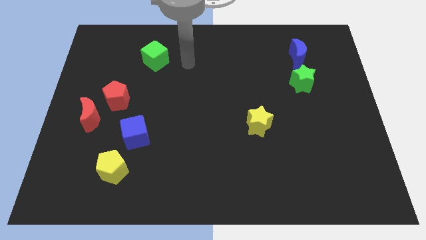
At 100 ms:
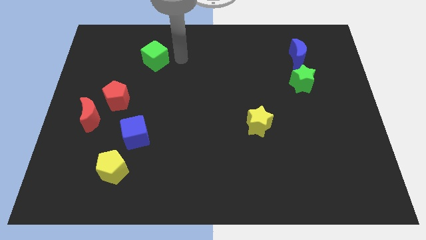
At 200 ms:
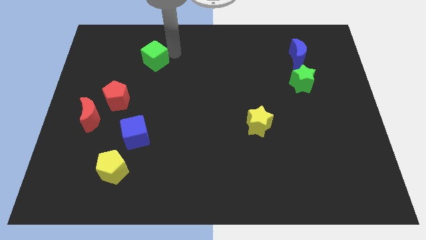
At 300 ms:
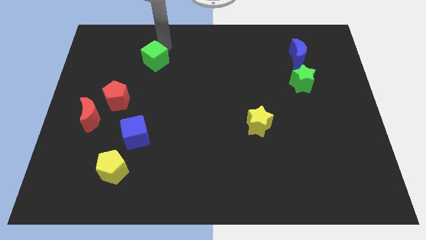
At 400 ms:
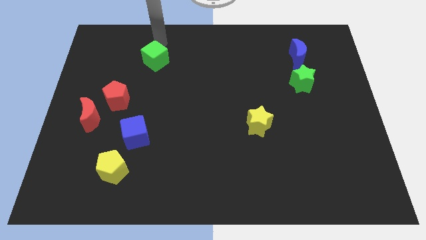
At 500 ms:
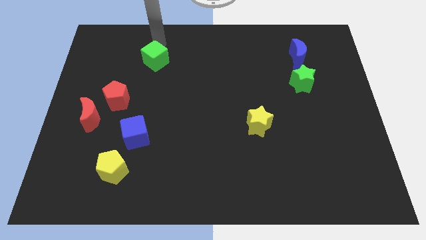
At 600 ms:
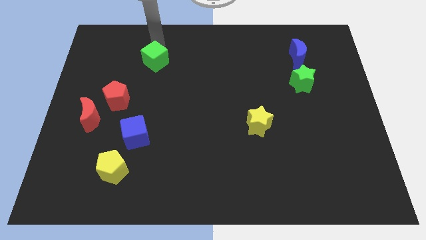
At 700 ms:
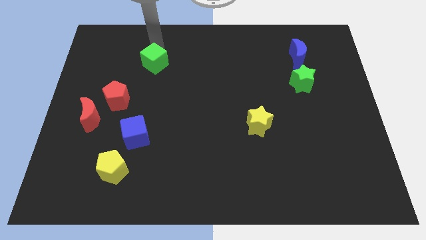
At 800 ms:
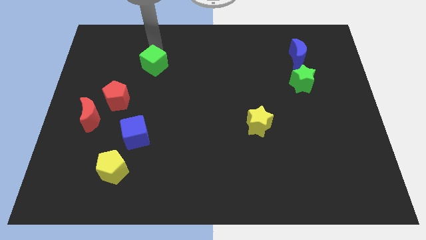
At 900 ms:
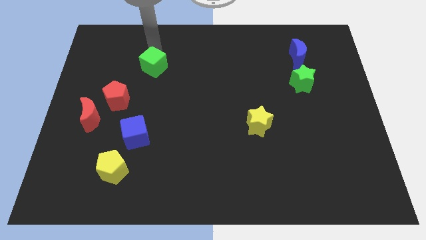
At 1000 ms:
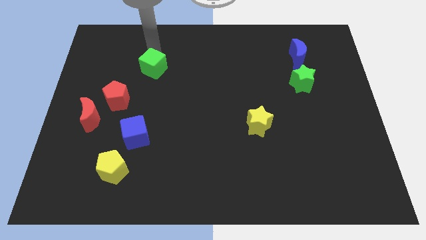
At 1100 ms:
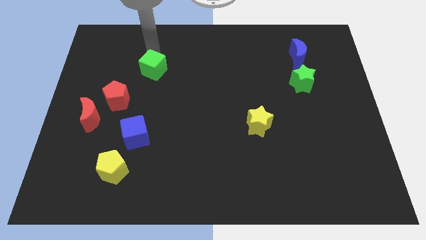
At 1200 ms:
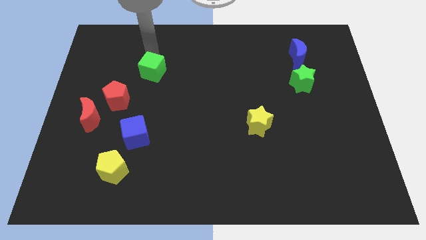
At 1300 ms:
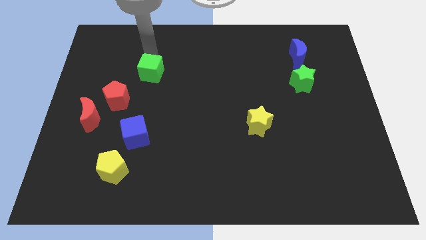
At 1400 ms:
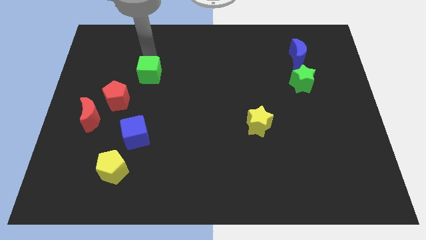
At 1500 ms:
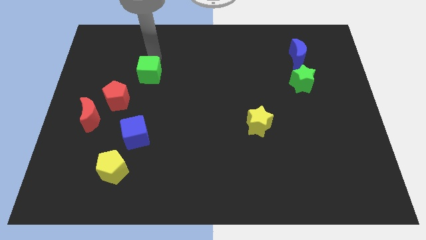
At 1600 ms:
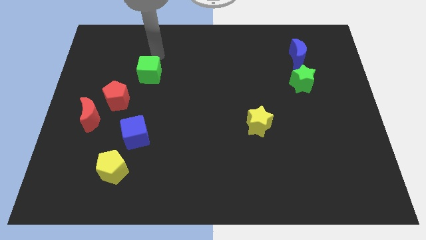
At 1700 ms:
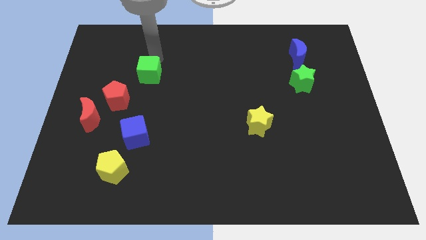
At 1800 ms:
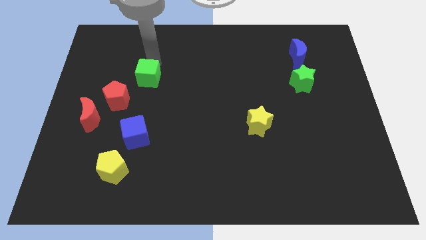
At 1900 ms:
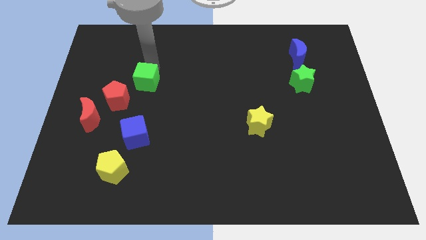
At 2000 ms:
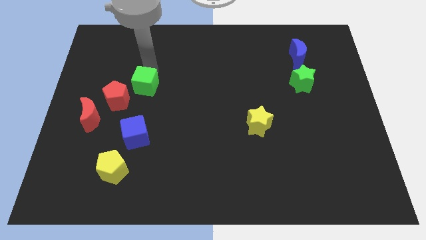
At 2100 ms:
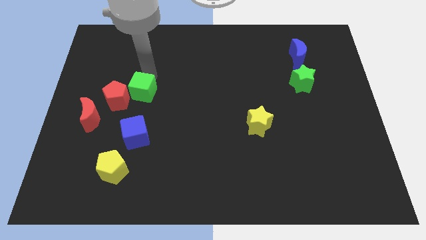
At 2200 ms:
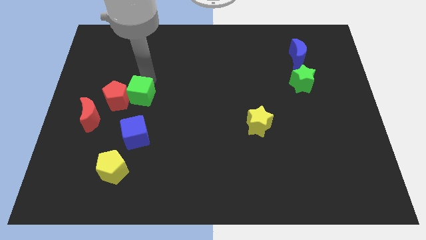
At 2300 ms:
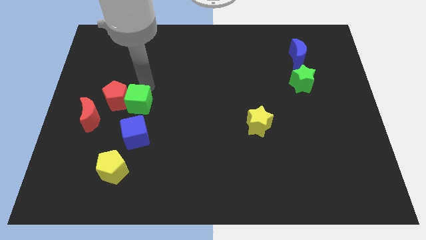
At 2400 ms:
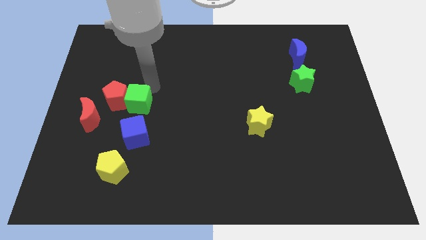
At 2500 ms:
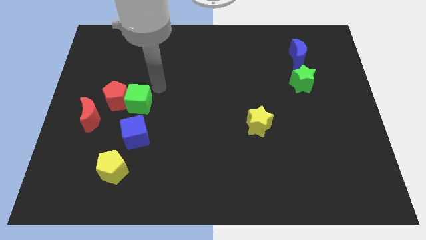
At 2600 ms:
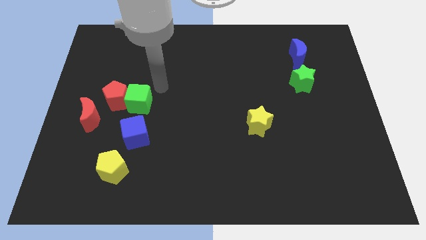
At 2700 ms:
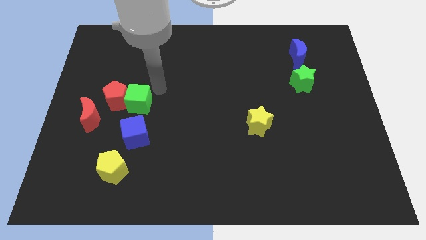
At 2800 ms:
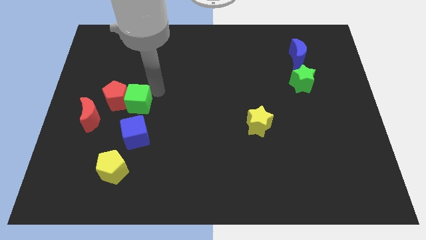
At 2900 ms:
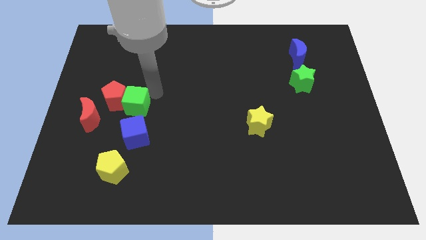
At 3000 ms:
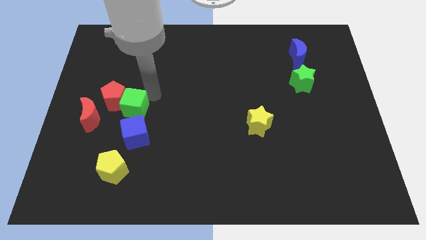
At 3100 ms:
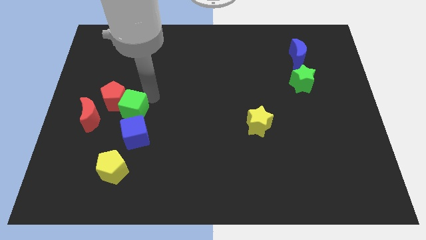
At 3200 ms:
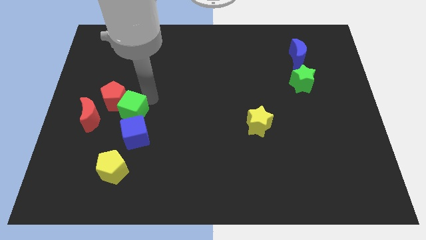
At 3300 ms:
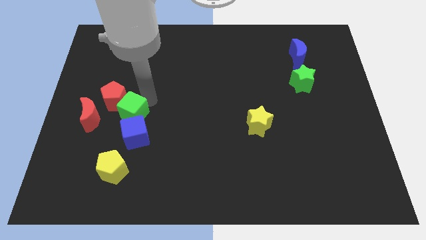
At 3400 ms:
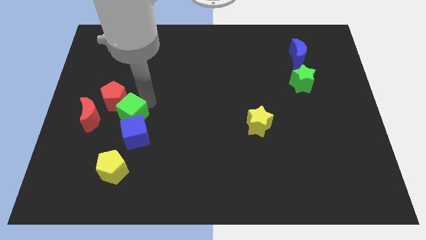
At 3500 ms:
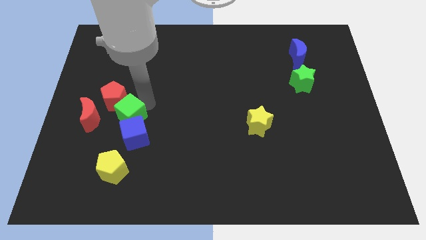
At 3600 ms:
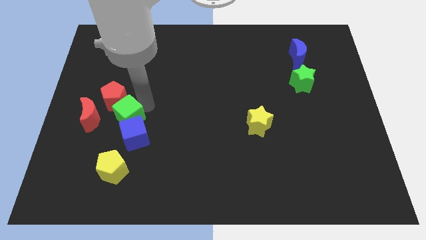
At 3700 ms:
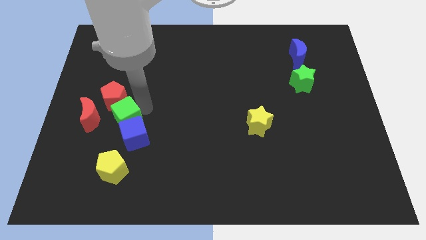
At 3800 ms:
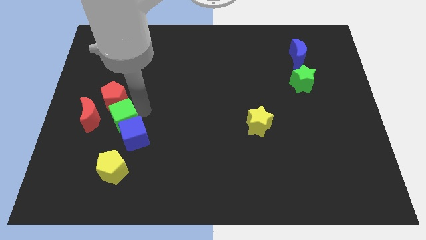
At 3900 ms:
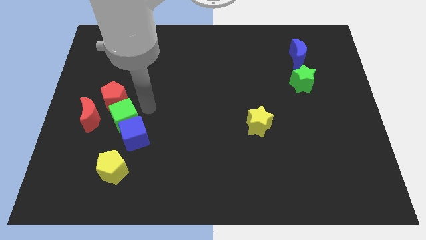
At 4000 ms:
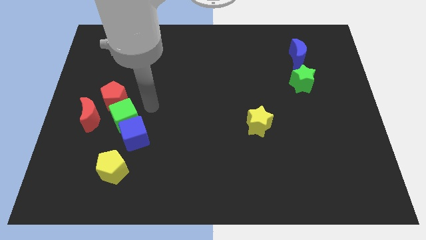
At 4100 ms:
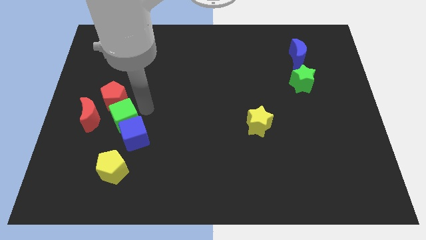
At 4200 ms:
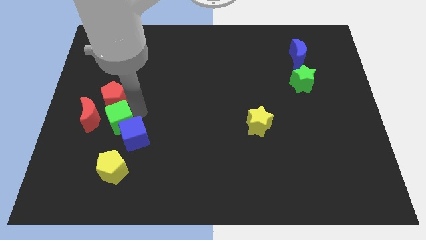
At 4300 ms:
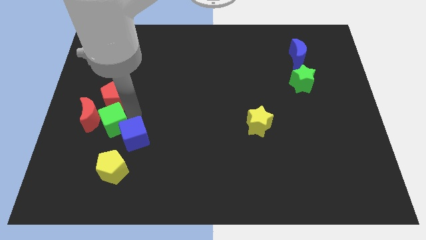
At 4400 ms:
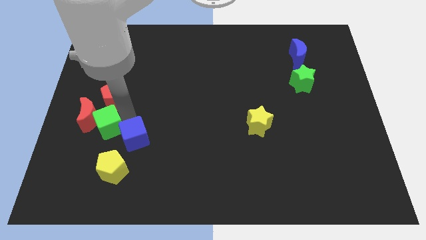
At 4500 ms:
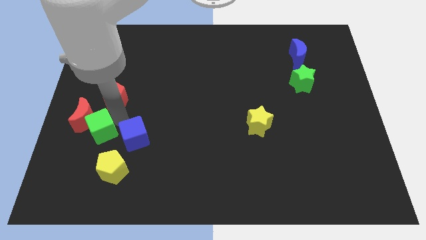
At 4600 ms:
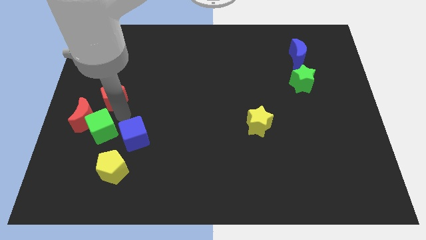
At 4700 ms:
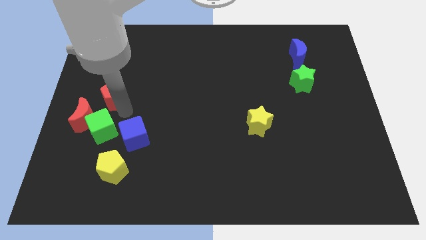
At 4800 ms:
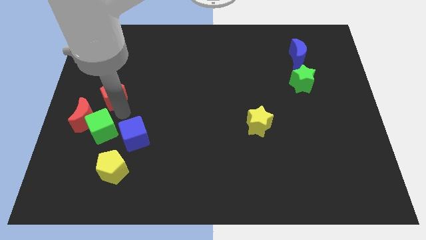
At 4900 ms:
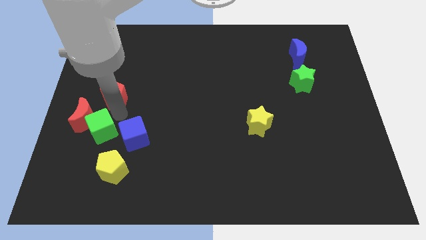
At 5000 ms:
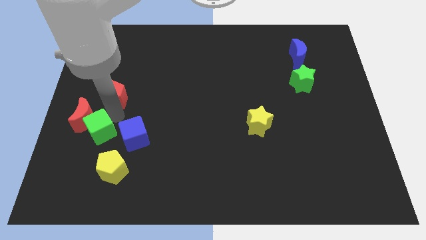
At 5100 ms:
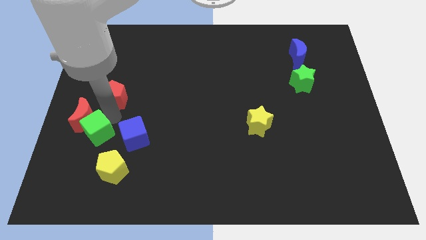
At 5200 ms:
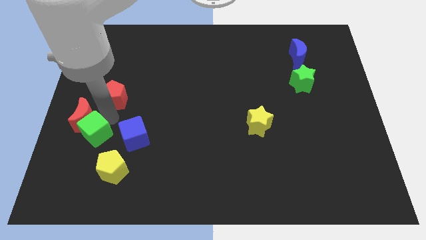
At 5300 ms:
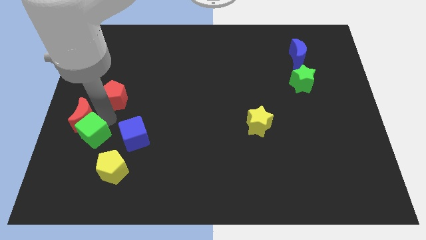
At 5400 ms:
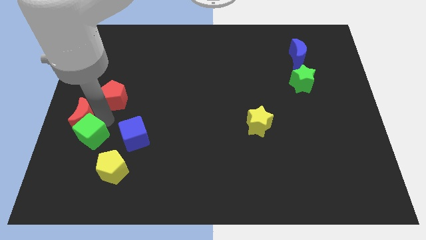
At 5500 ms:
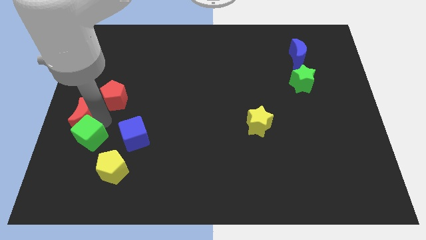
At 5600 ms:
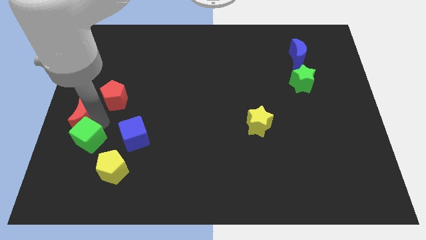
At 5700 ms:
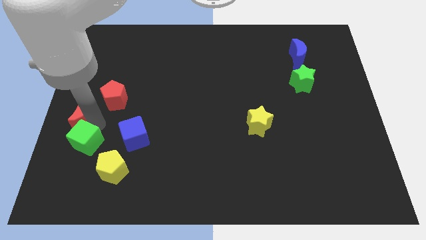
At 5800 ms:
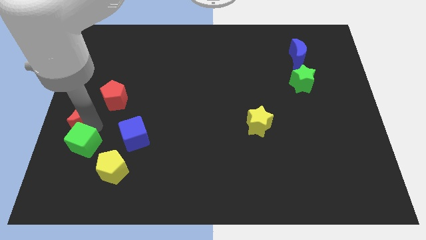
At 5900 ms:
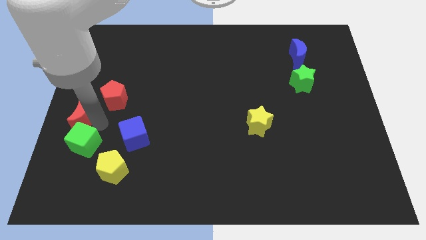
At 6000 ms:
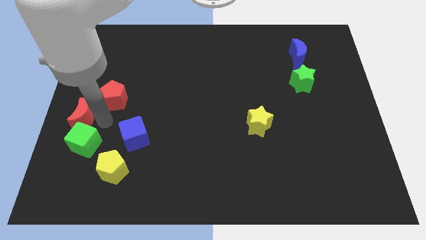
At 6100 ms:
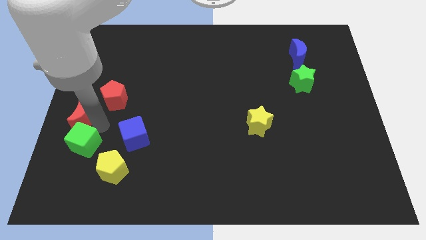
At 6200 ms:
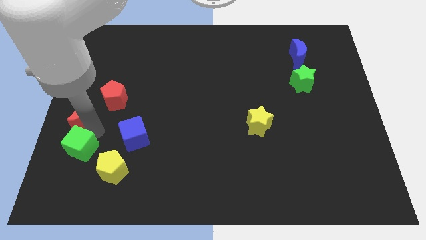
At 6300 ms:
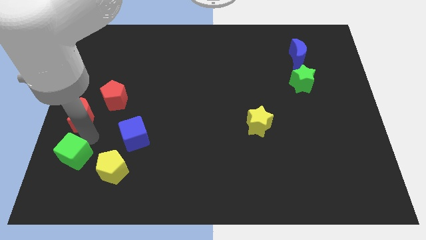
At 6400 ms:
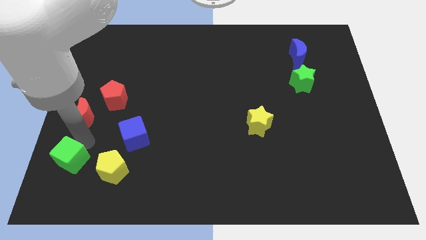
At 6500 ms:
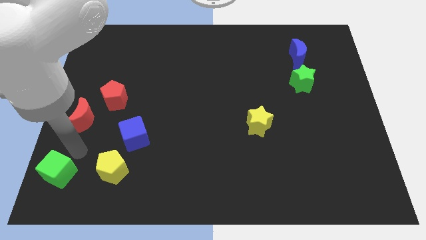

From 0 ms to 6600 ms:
slide the green cube to the bottom left of the board

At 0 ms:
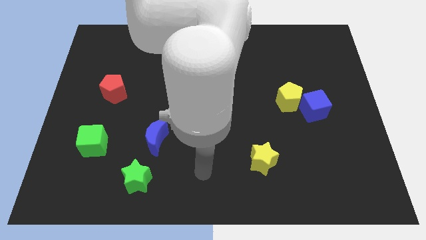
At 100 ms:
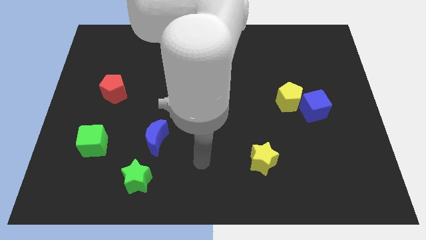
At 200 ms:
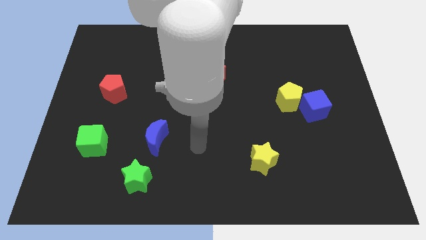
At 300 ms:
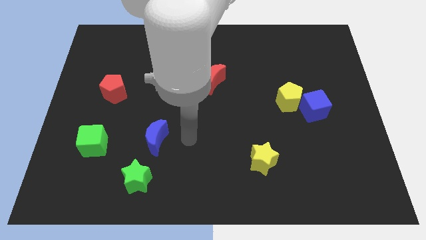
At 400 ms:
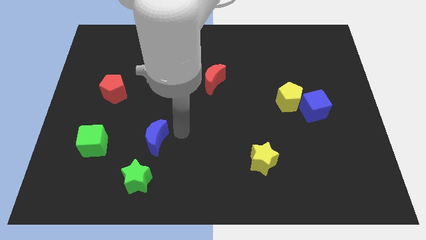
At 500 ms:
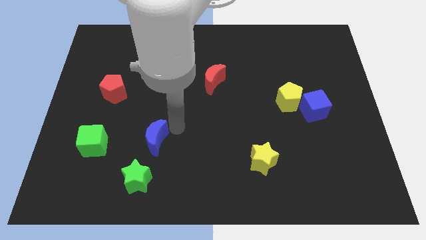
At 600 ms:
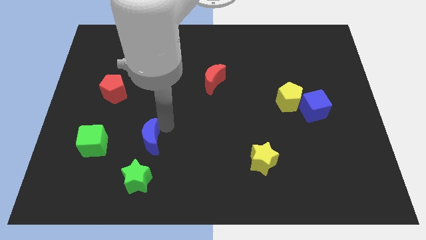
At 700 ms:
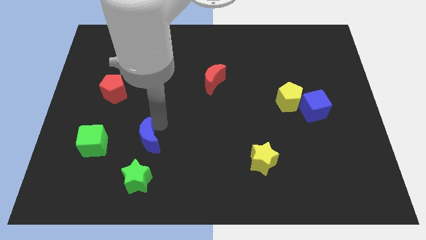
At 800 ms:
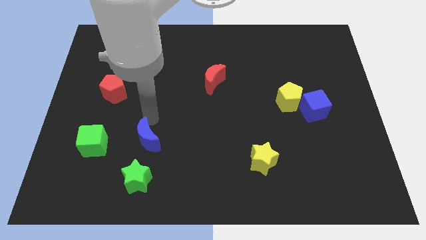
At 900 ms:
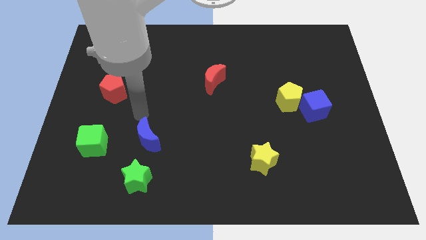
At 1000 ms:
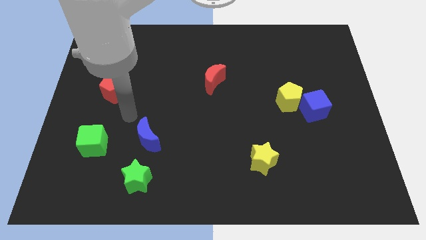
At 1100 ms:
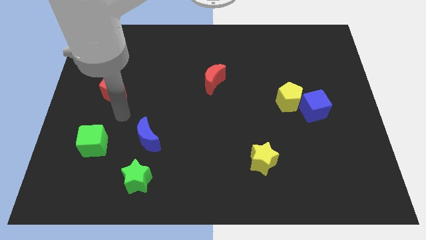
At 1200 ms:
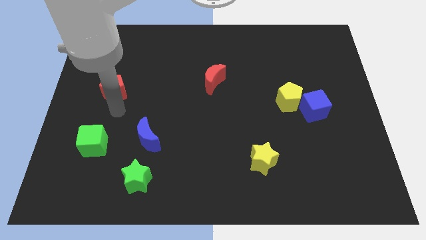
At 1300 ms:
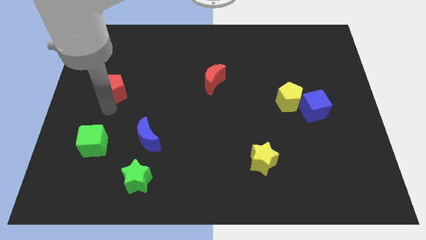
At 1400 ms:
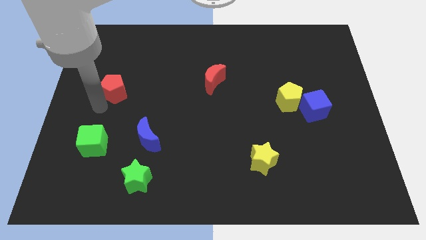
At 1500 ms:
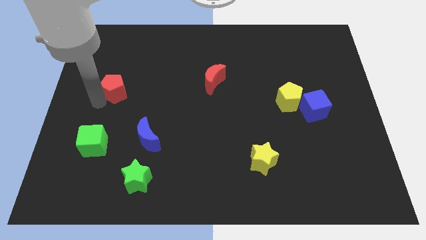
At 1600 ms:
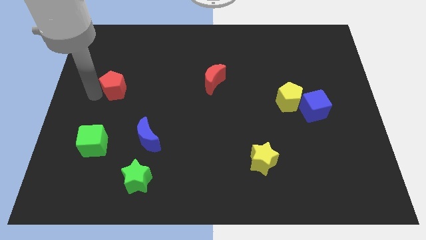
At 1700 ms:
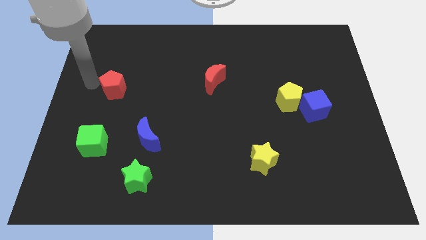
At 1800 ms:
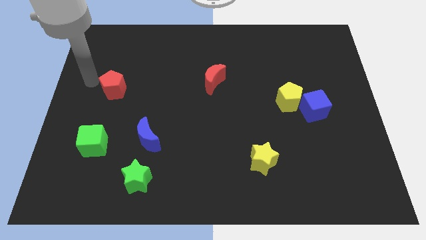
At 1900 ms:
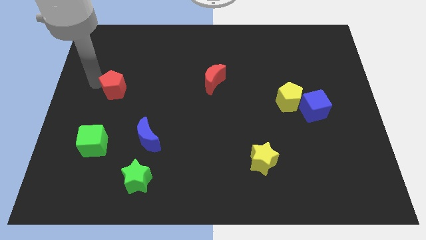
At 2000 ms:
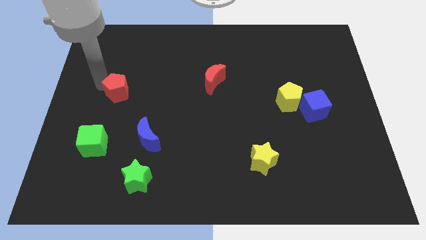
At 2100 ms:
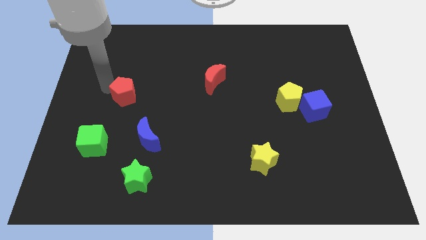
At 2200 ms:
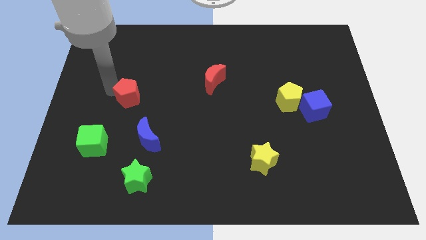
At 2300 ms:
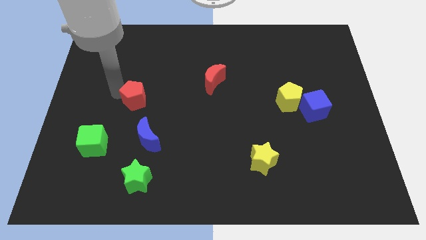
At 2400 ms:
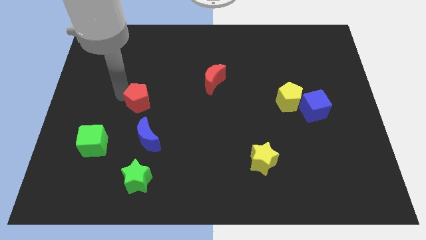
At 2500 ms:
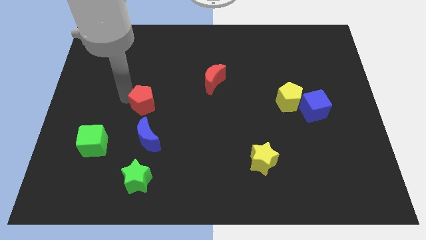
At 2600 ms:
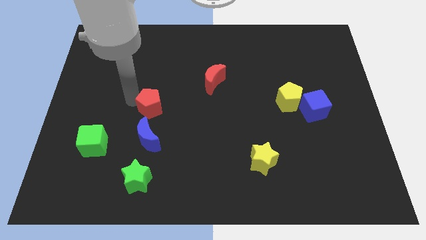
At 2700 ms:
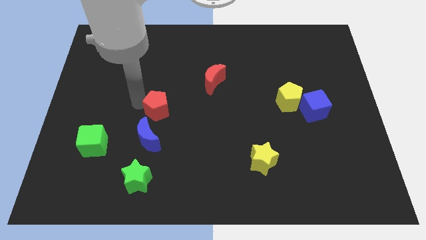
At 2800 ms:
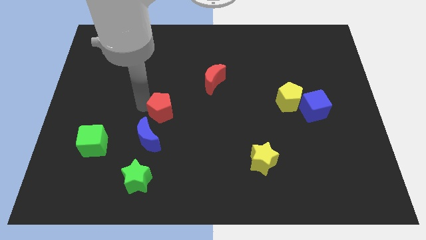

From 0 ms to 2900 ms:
slide the red pentagon to the middle of the board
